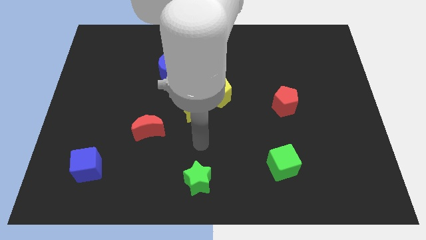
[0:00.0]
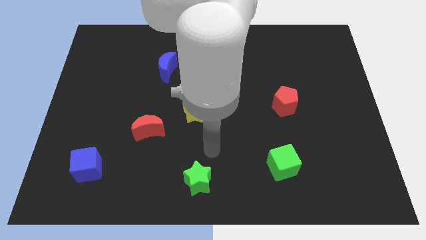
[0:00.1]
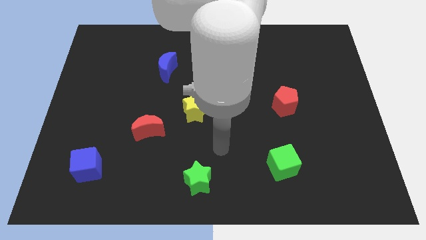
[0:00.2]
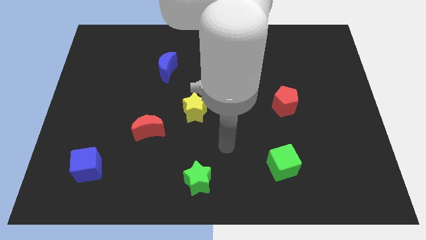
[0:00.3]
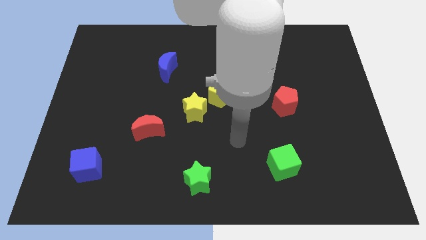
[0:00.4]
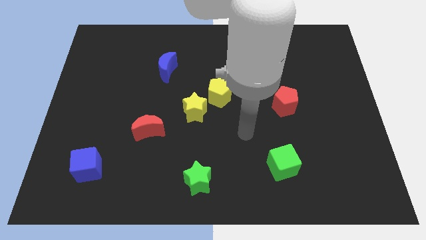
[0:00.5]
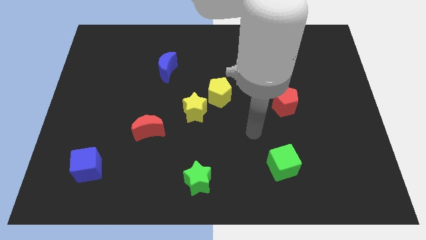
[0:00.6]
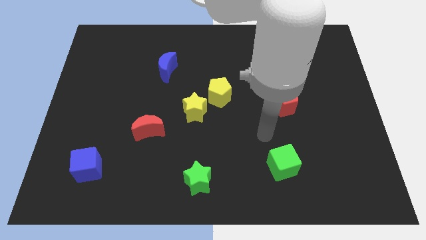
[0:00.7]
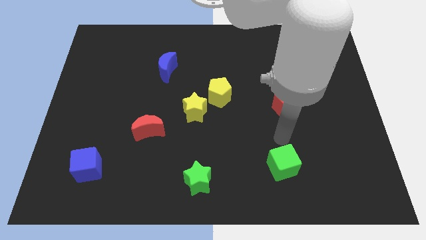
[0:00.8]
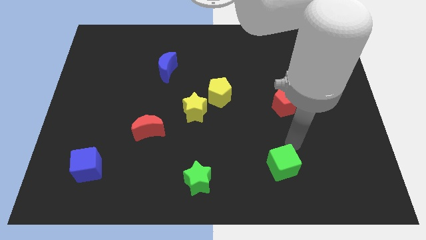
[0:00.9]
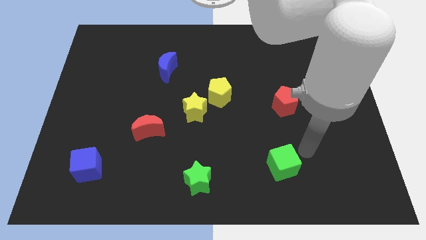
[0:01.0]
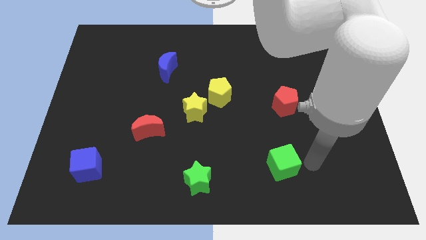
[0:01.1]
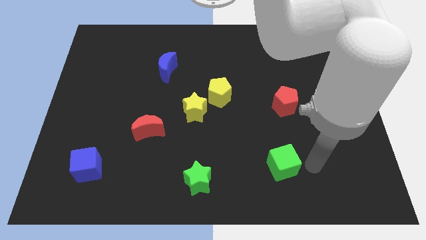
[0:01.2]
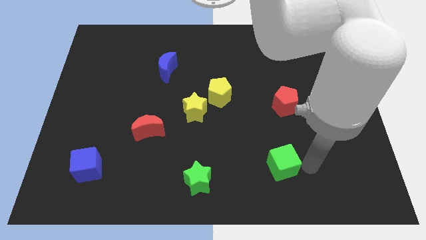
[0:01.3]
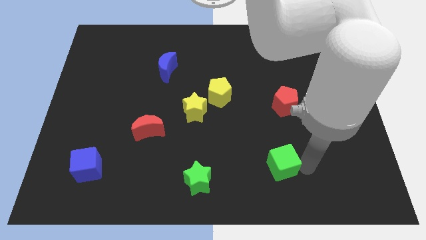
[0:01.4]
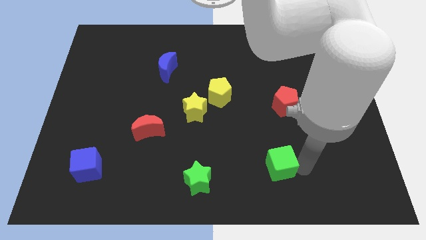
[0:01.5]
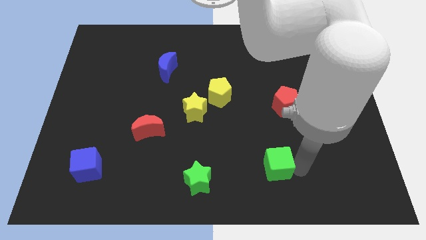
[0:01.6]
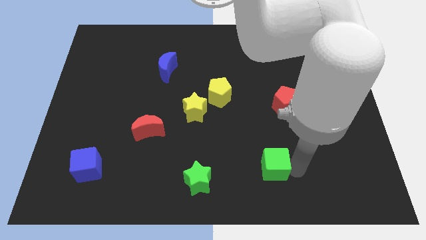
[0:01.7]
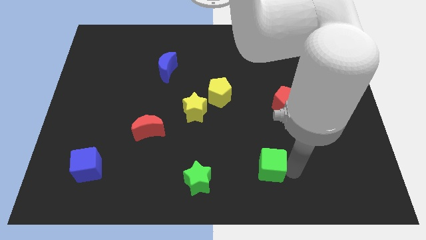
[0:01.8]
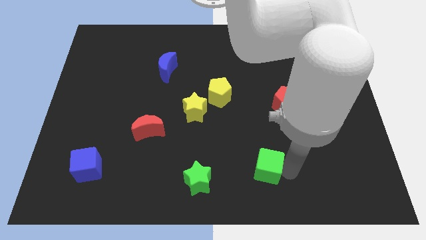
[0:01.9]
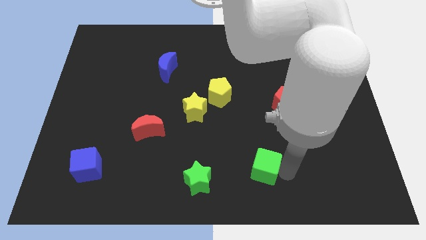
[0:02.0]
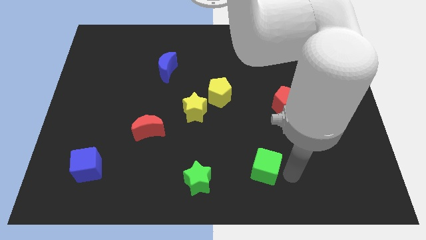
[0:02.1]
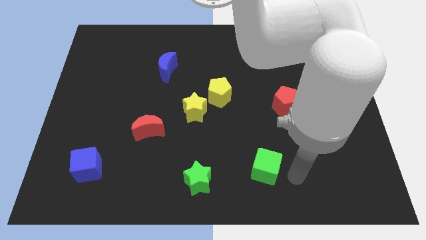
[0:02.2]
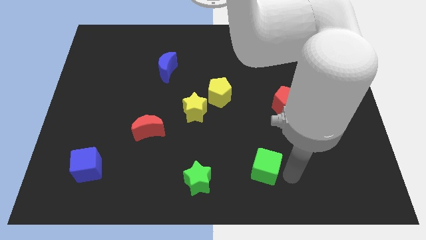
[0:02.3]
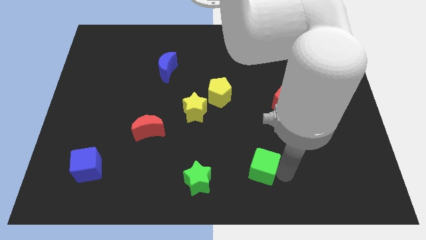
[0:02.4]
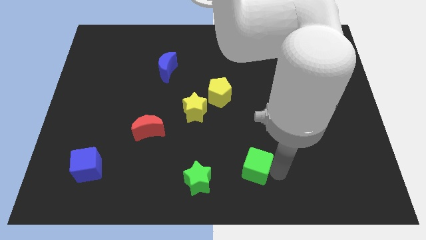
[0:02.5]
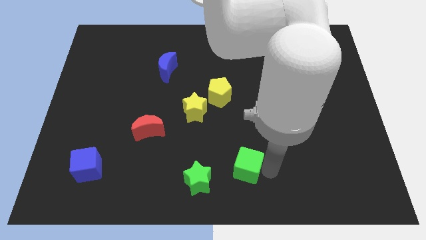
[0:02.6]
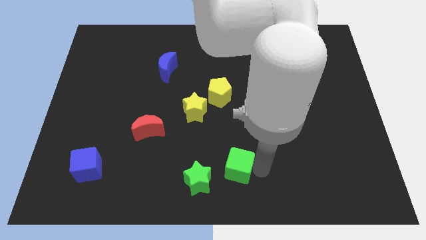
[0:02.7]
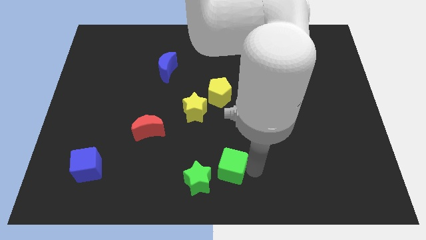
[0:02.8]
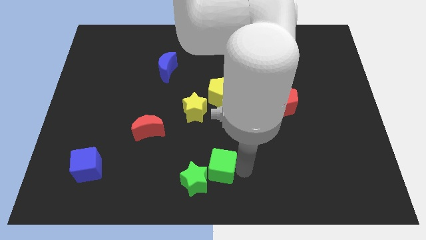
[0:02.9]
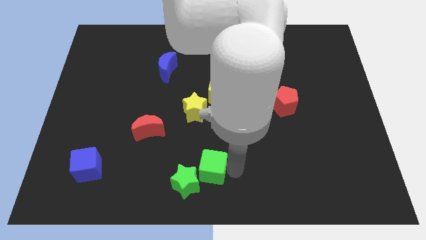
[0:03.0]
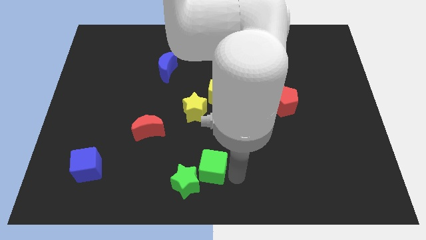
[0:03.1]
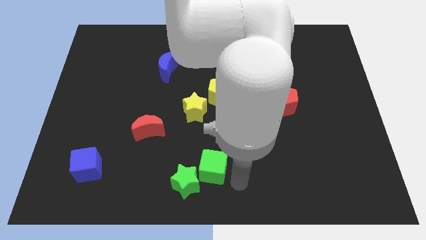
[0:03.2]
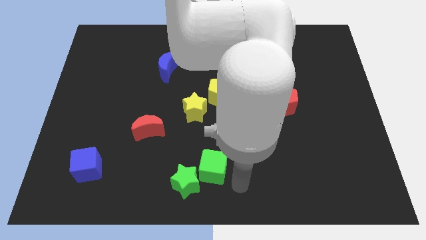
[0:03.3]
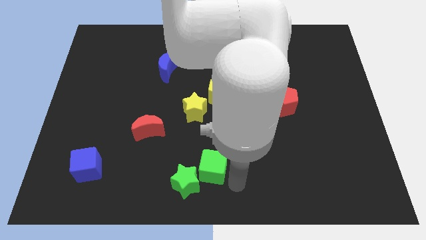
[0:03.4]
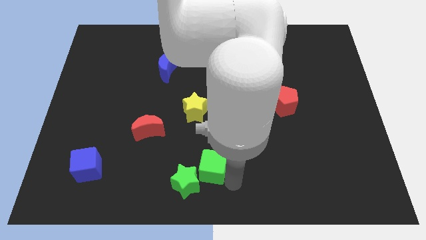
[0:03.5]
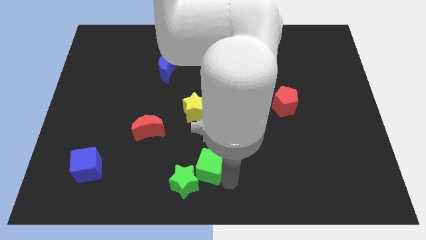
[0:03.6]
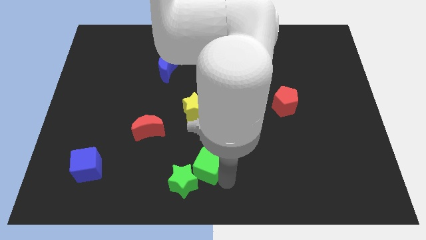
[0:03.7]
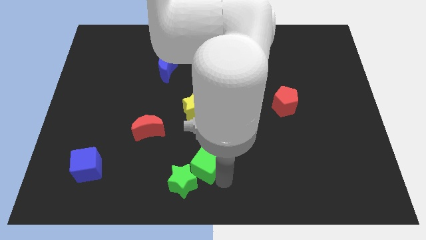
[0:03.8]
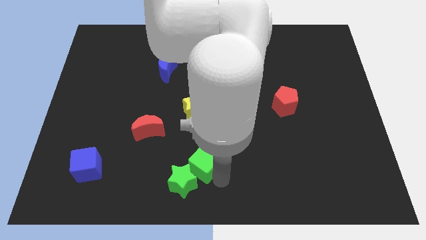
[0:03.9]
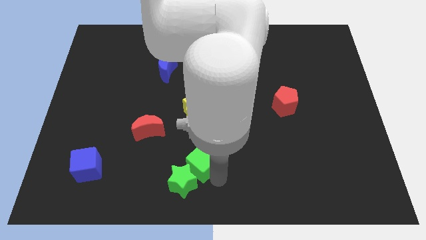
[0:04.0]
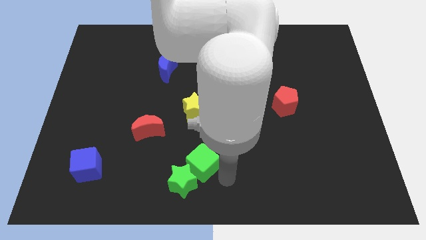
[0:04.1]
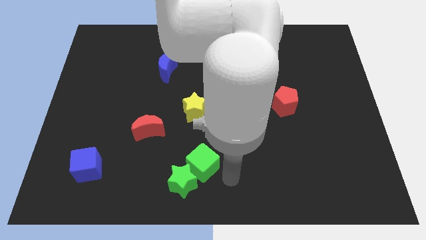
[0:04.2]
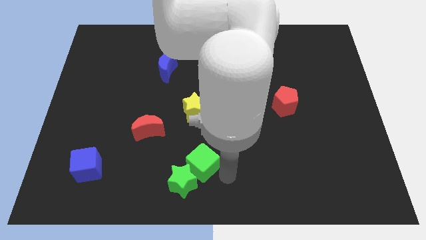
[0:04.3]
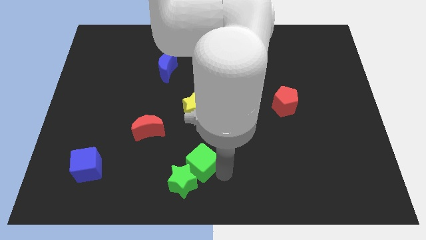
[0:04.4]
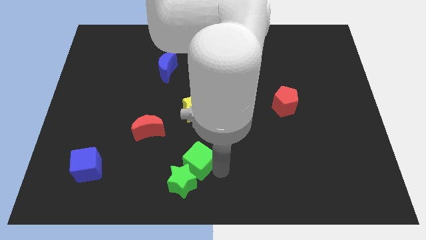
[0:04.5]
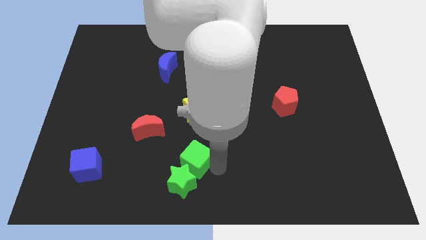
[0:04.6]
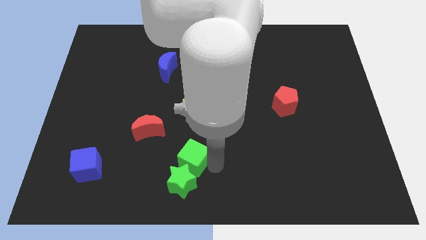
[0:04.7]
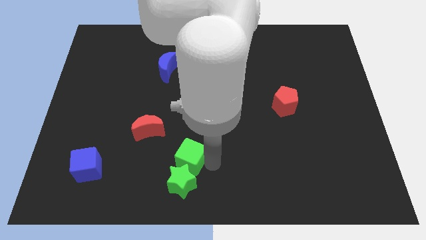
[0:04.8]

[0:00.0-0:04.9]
slide the green cube to the bottom right side of the red moon
